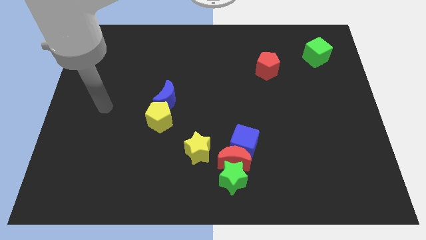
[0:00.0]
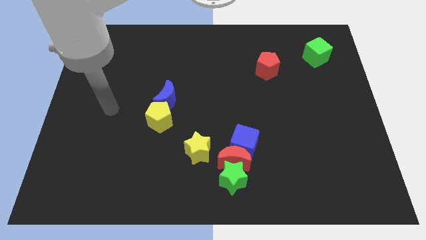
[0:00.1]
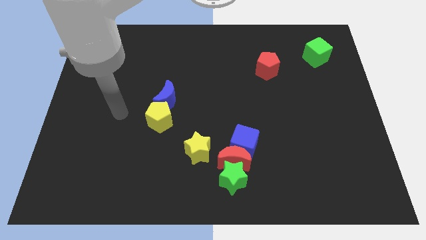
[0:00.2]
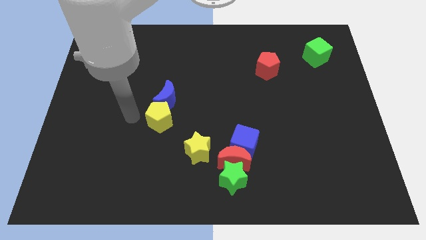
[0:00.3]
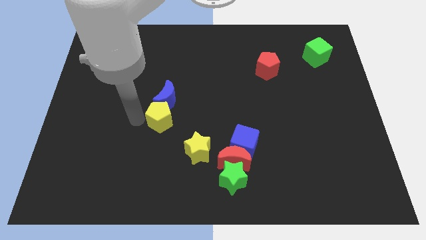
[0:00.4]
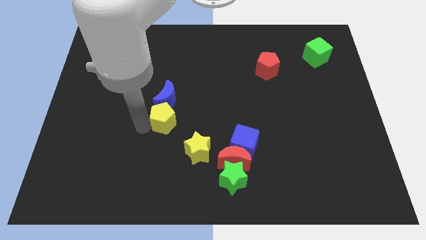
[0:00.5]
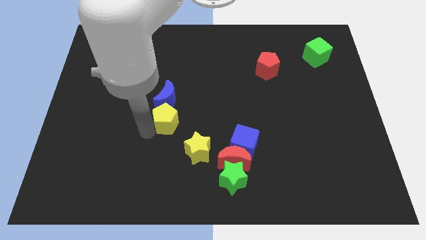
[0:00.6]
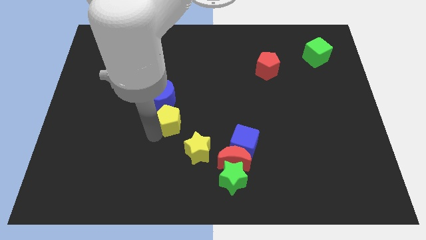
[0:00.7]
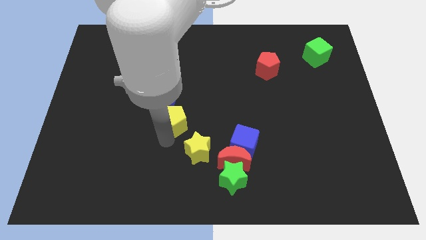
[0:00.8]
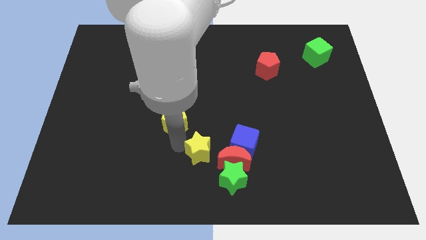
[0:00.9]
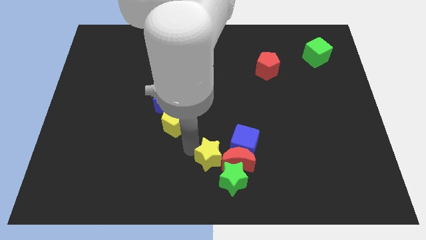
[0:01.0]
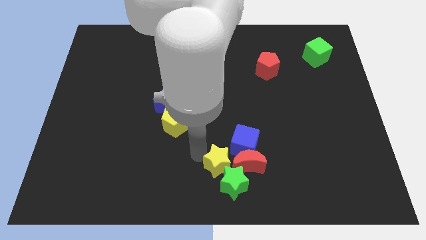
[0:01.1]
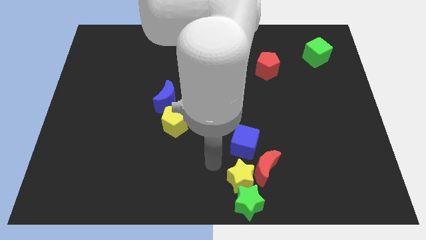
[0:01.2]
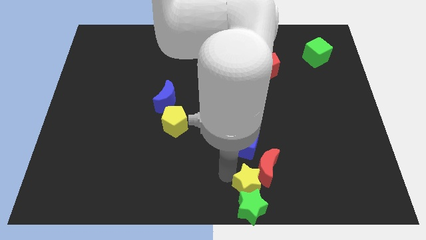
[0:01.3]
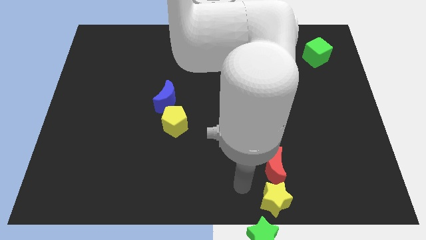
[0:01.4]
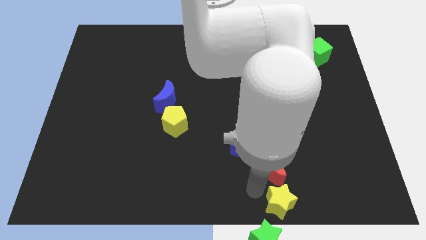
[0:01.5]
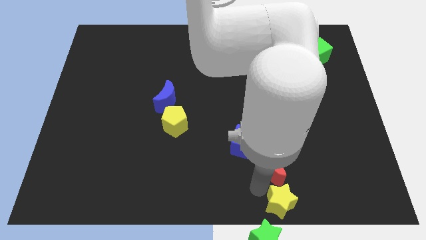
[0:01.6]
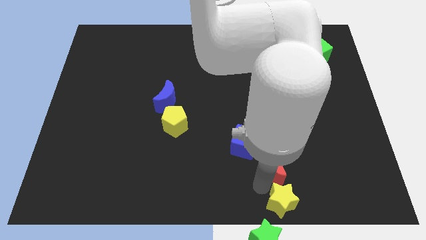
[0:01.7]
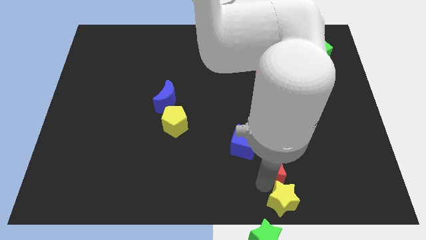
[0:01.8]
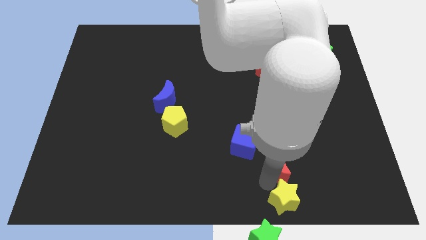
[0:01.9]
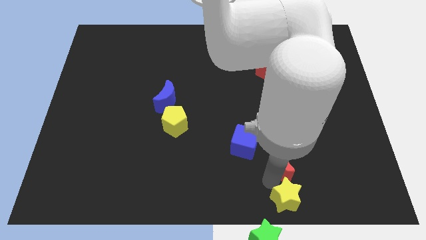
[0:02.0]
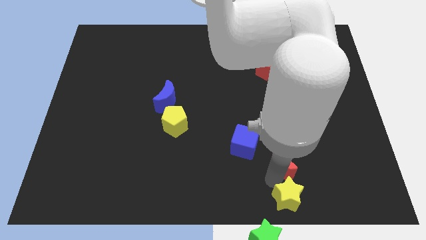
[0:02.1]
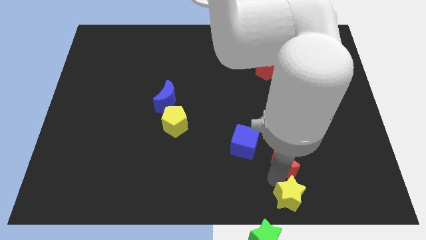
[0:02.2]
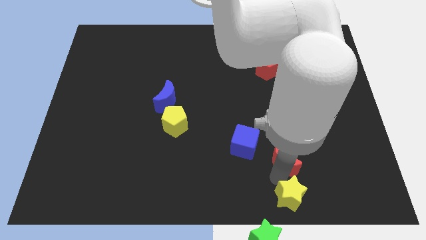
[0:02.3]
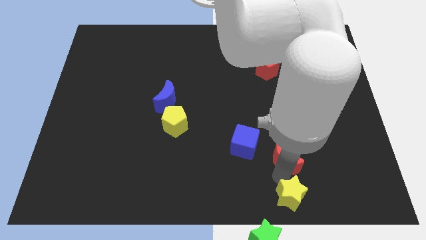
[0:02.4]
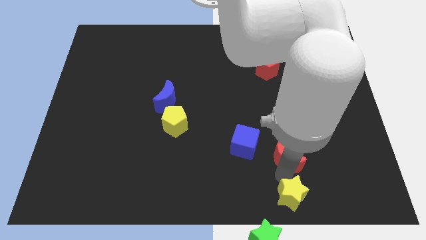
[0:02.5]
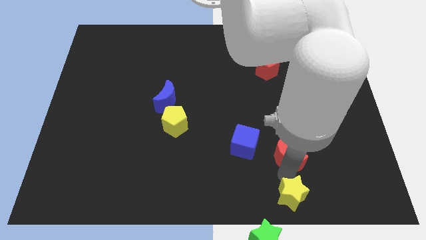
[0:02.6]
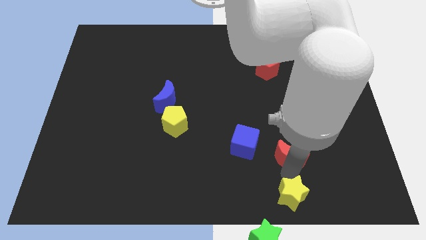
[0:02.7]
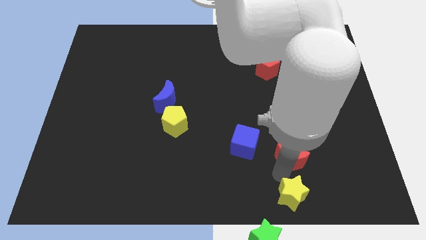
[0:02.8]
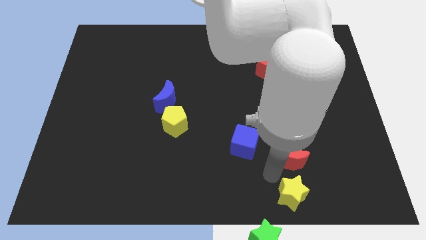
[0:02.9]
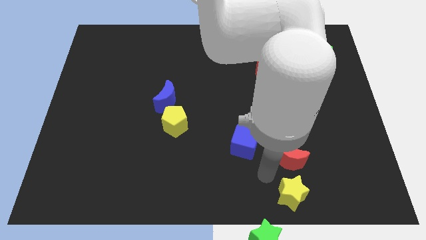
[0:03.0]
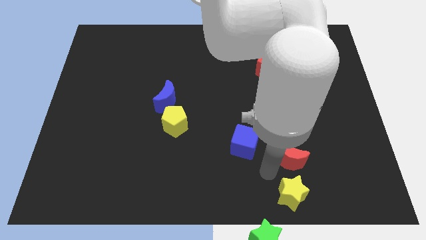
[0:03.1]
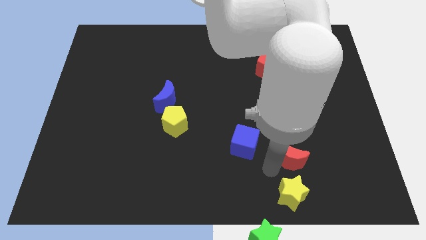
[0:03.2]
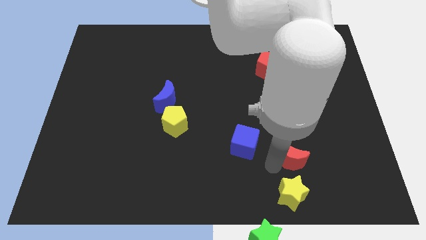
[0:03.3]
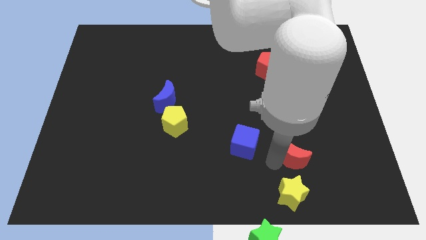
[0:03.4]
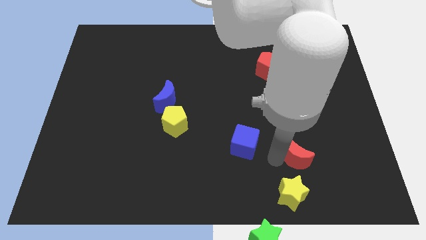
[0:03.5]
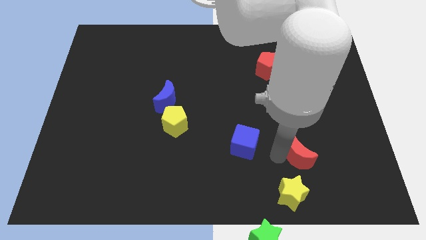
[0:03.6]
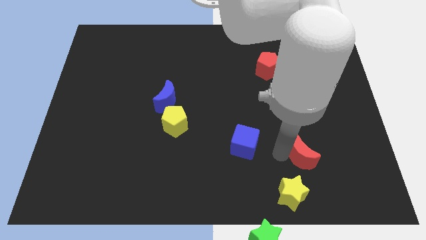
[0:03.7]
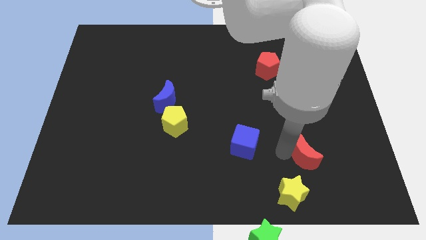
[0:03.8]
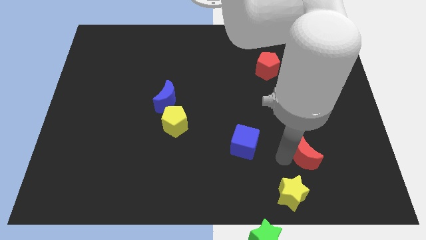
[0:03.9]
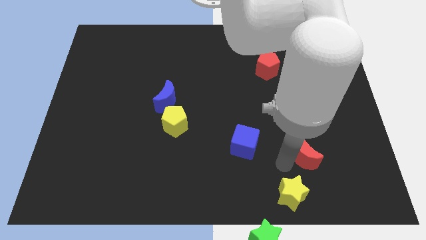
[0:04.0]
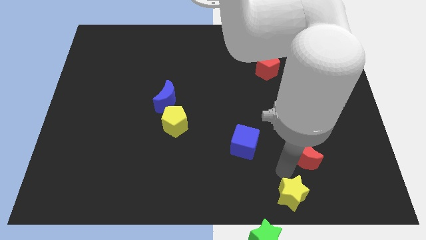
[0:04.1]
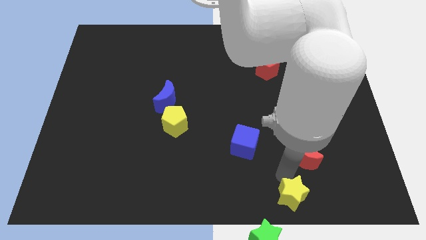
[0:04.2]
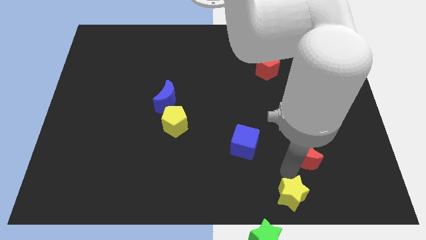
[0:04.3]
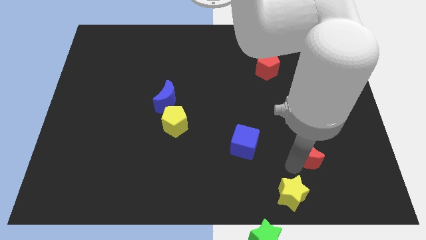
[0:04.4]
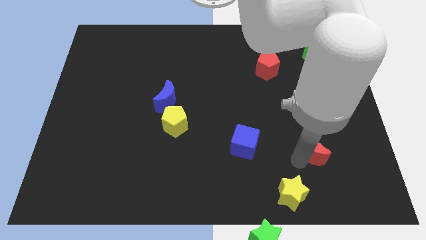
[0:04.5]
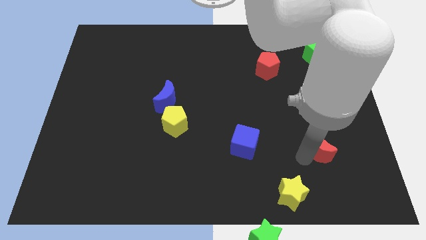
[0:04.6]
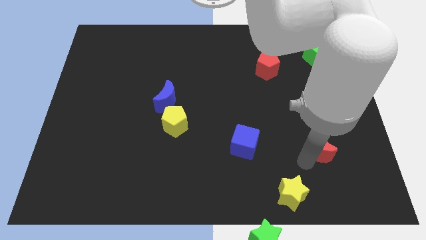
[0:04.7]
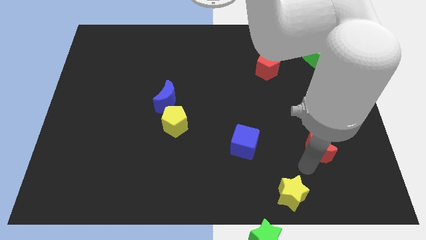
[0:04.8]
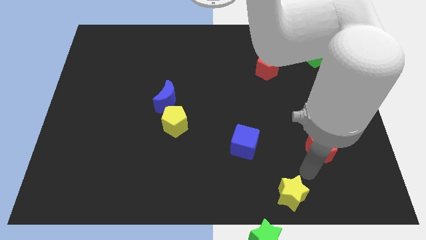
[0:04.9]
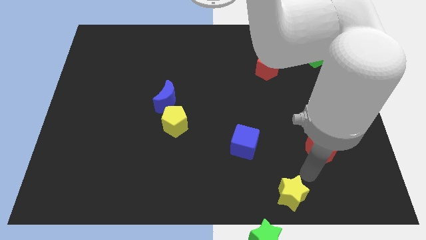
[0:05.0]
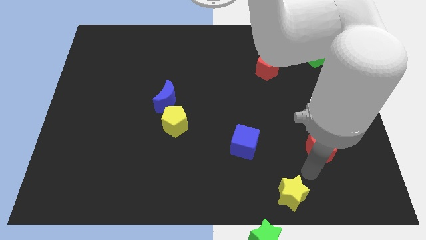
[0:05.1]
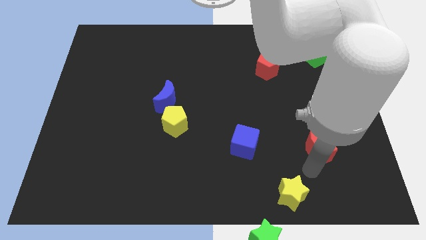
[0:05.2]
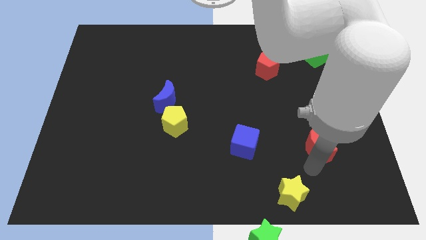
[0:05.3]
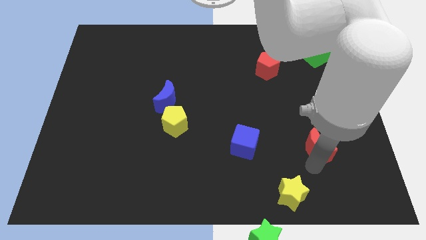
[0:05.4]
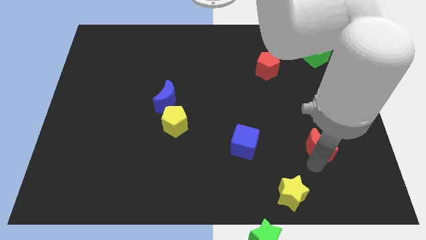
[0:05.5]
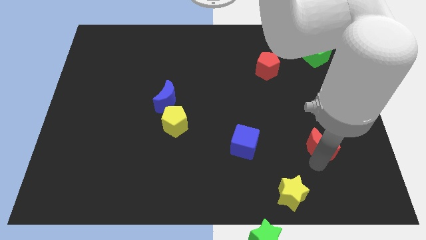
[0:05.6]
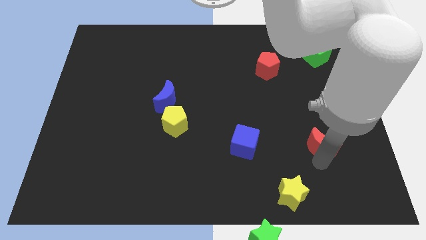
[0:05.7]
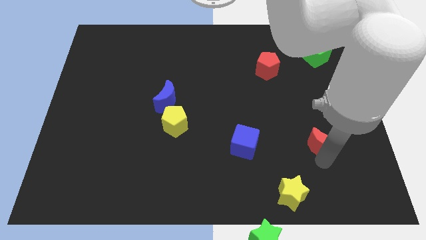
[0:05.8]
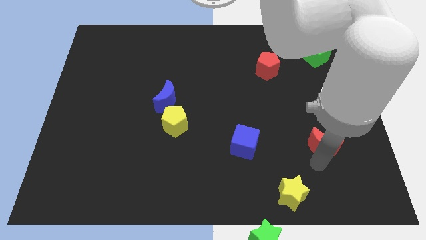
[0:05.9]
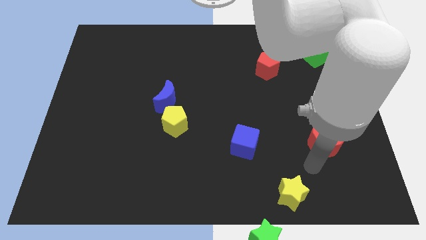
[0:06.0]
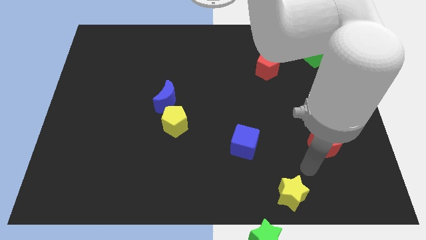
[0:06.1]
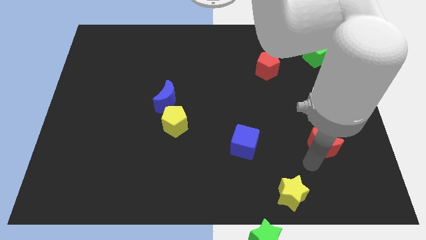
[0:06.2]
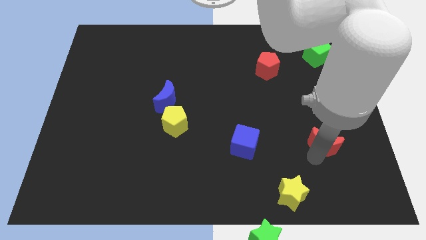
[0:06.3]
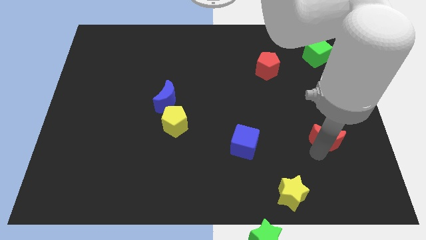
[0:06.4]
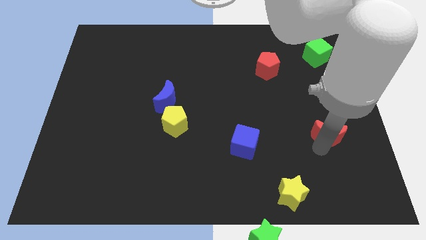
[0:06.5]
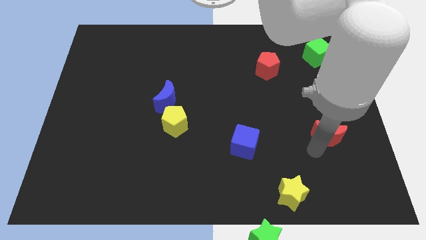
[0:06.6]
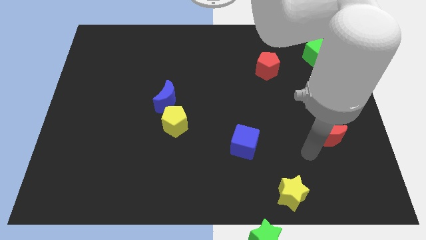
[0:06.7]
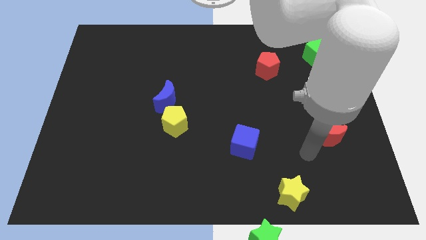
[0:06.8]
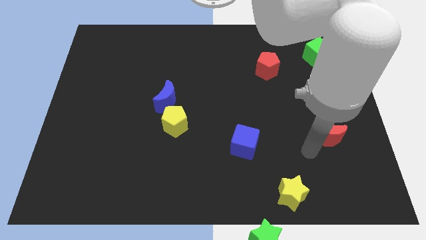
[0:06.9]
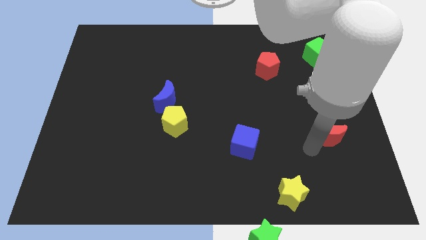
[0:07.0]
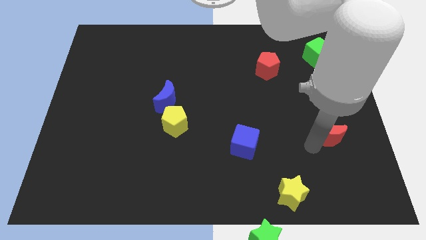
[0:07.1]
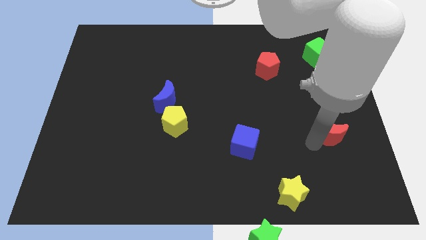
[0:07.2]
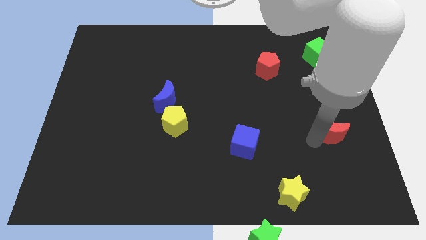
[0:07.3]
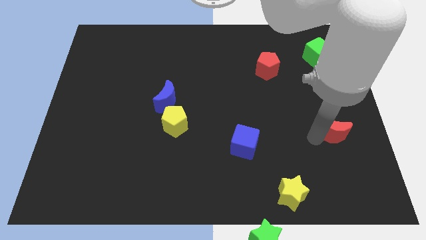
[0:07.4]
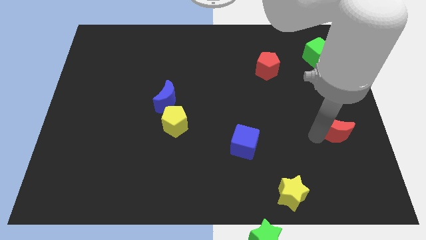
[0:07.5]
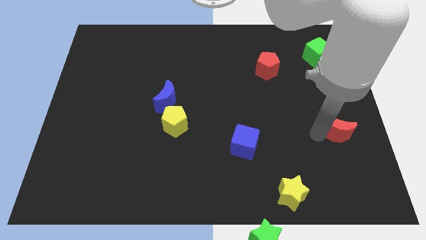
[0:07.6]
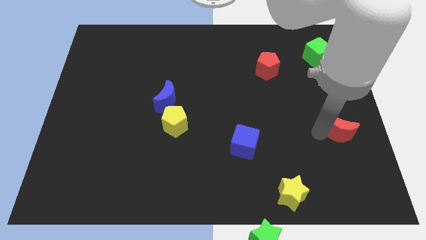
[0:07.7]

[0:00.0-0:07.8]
put the red moon to the center right
